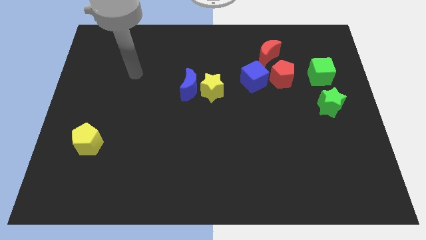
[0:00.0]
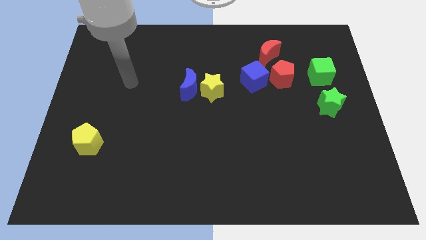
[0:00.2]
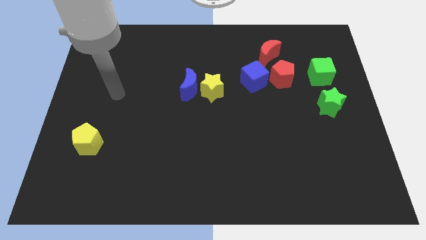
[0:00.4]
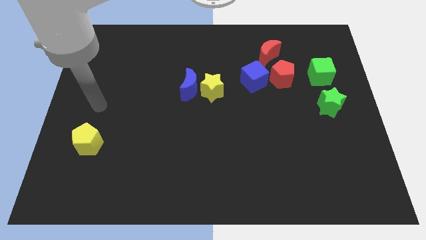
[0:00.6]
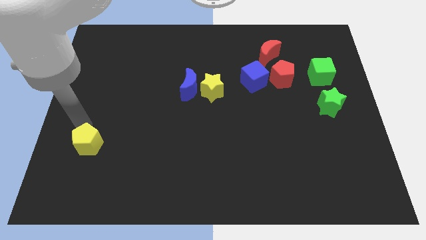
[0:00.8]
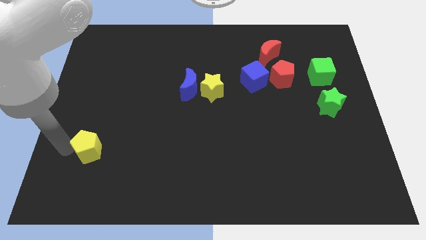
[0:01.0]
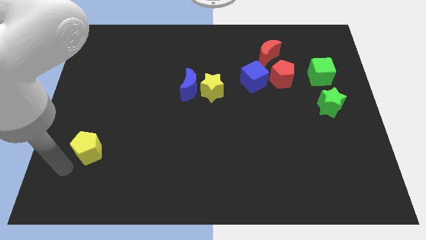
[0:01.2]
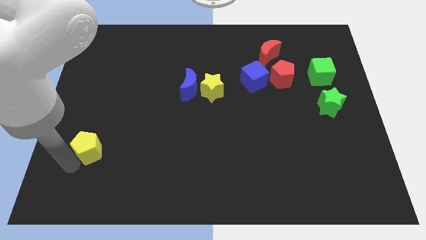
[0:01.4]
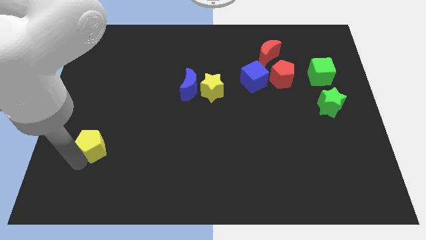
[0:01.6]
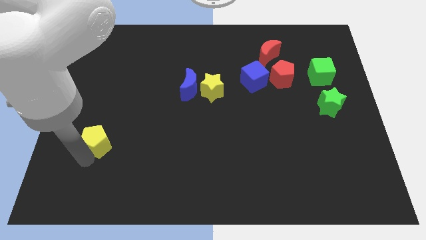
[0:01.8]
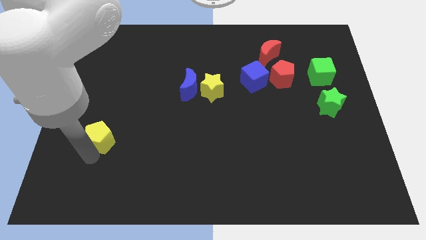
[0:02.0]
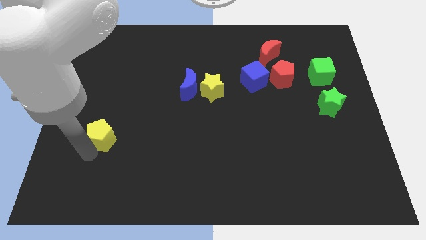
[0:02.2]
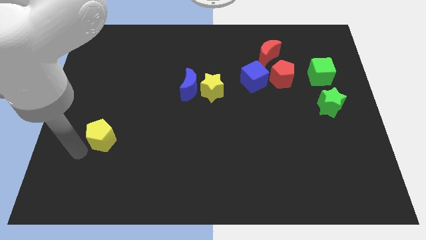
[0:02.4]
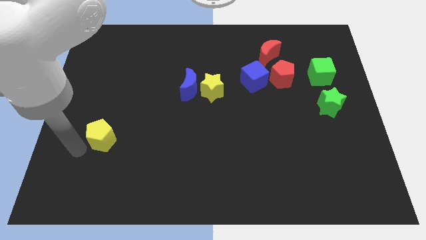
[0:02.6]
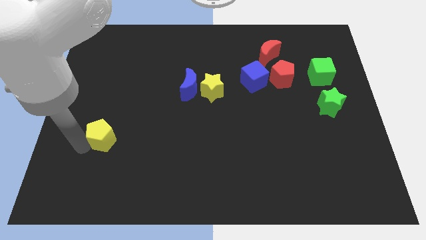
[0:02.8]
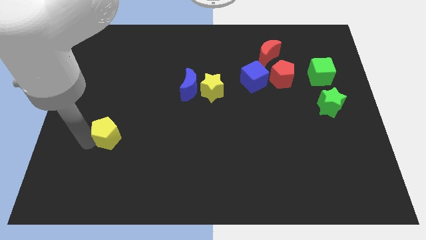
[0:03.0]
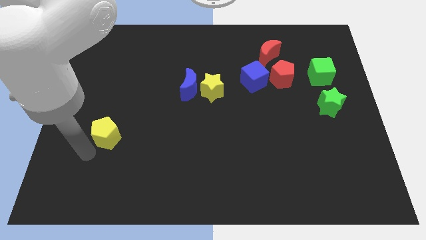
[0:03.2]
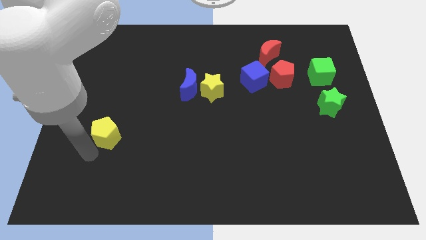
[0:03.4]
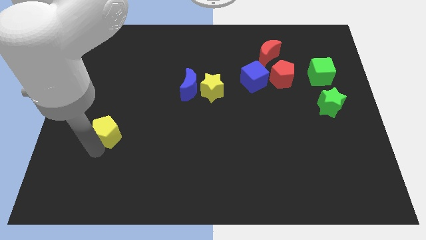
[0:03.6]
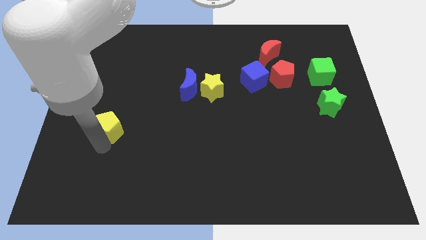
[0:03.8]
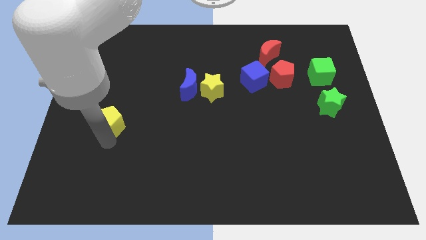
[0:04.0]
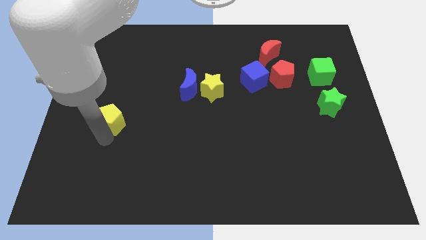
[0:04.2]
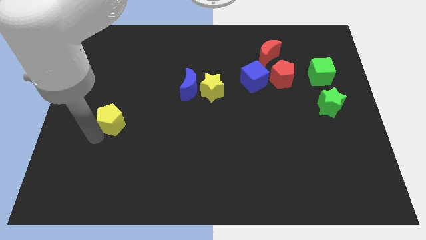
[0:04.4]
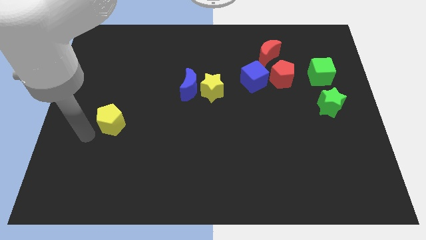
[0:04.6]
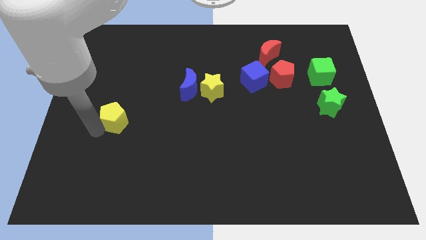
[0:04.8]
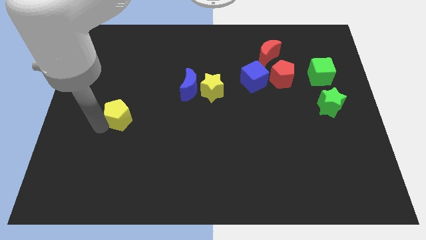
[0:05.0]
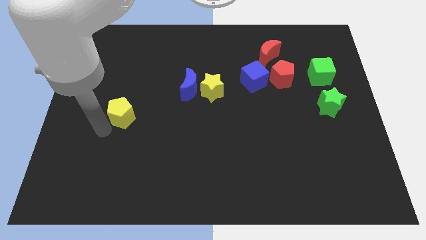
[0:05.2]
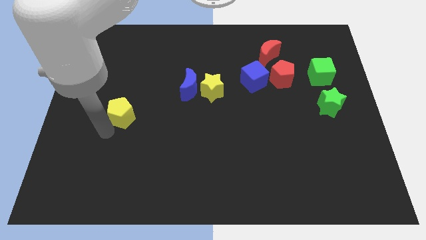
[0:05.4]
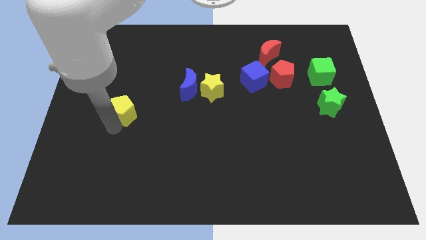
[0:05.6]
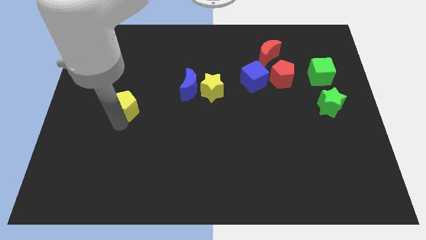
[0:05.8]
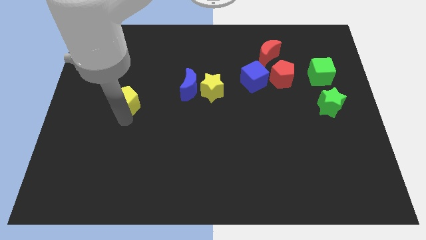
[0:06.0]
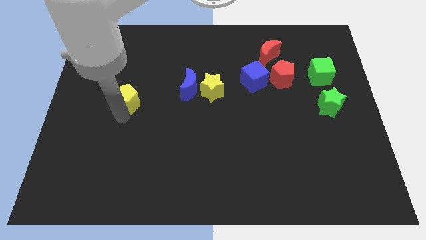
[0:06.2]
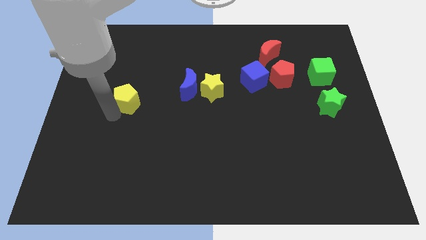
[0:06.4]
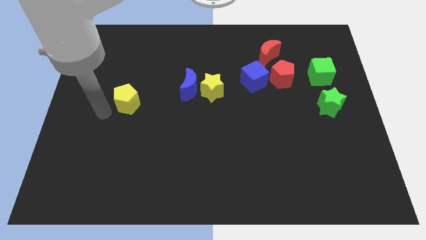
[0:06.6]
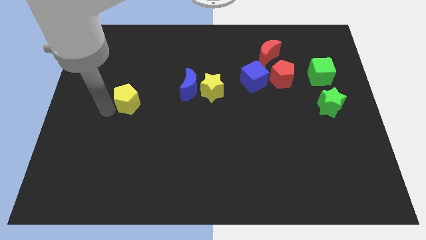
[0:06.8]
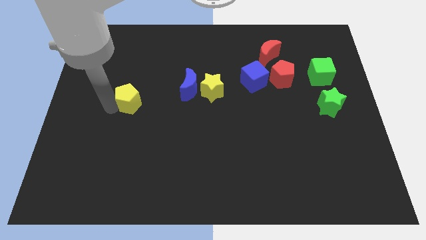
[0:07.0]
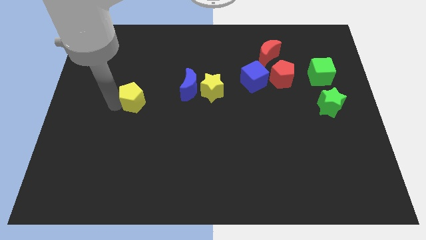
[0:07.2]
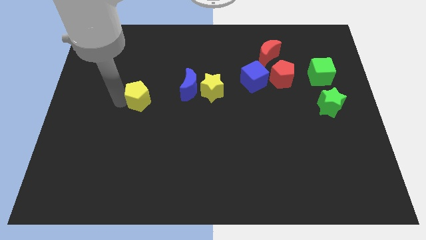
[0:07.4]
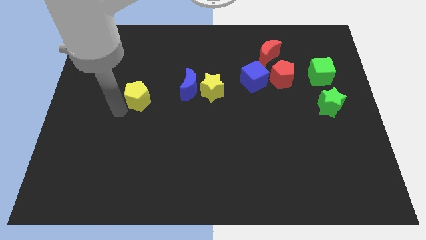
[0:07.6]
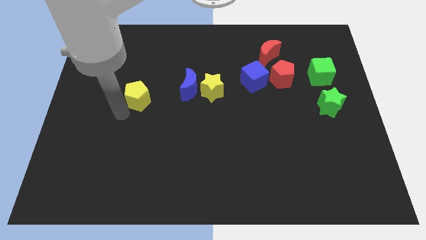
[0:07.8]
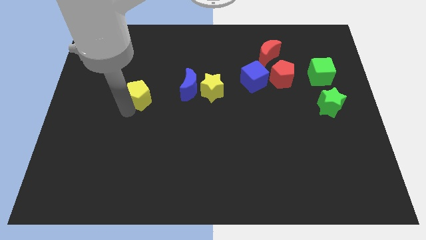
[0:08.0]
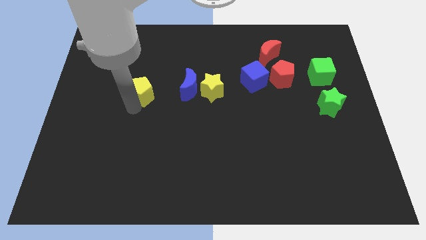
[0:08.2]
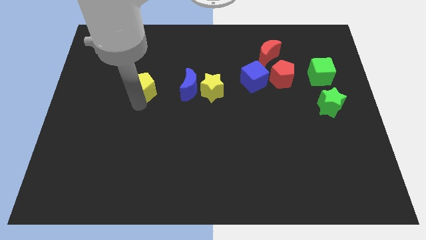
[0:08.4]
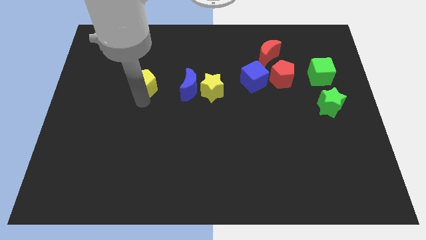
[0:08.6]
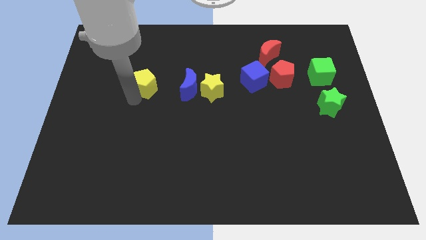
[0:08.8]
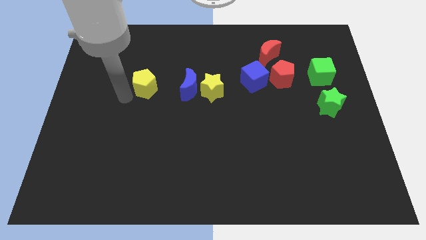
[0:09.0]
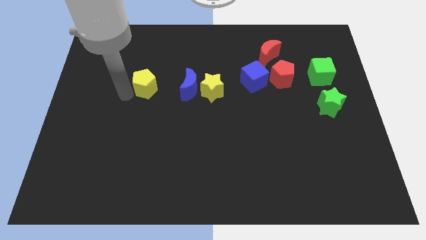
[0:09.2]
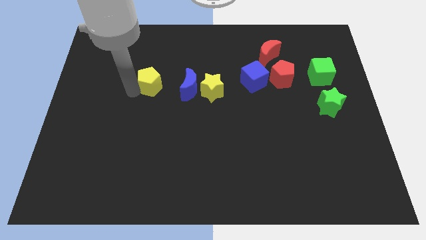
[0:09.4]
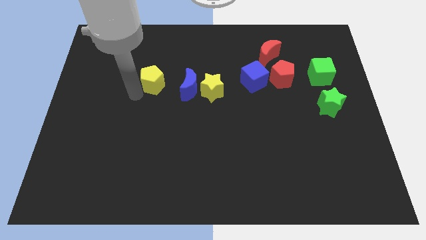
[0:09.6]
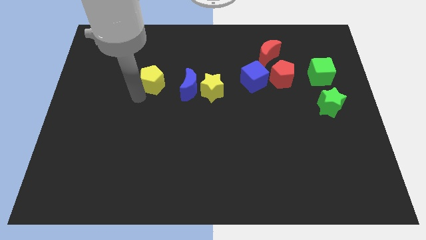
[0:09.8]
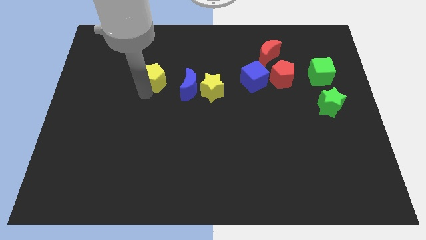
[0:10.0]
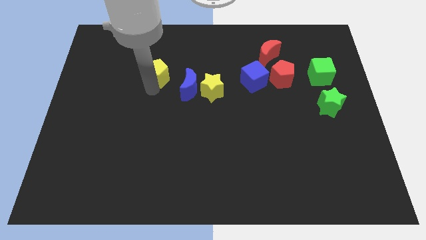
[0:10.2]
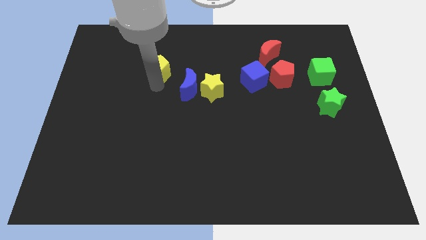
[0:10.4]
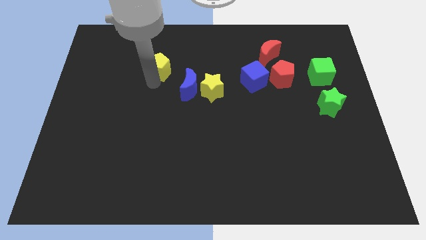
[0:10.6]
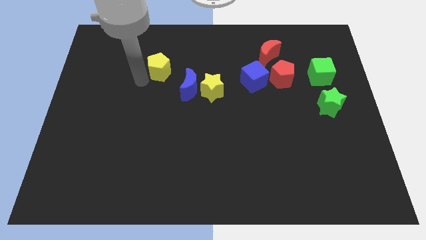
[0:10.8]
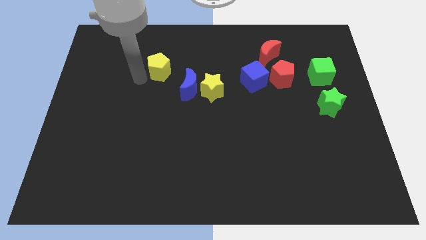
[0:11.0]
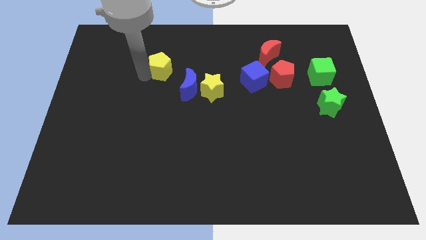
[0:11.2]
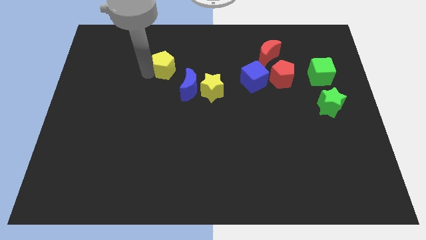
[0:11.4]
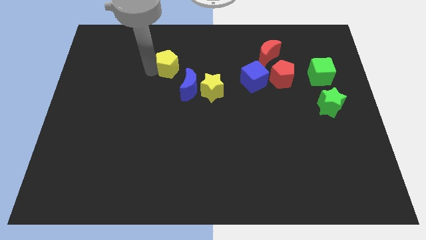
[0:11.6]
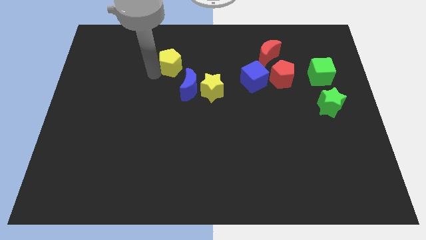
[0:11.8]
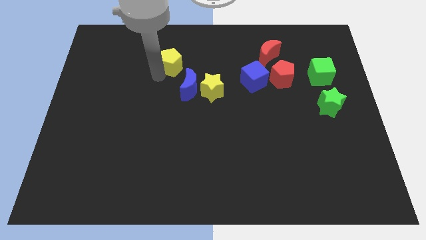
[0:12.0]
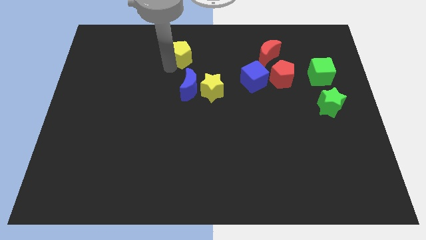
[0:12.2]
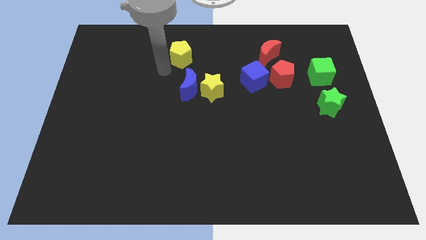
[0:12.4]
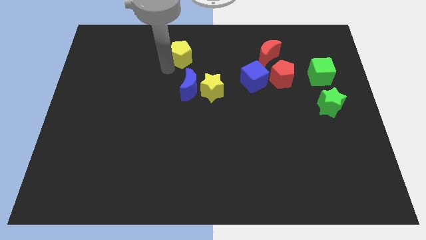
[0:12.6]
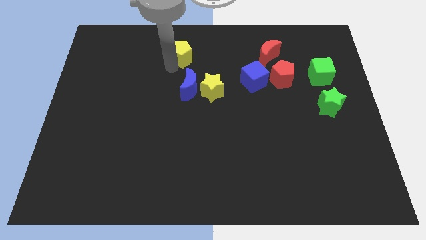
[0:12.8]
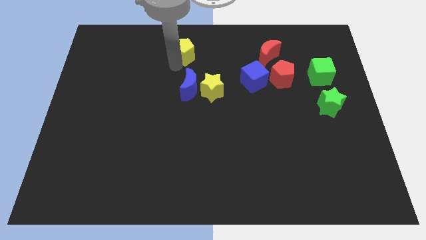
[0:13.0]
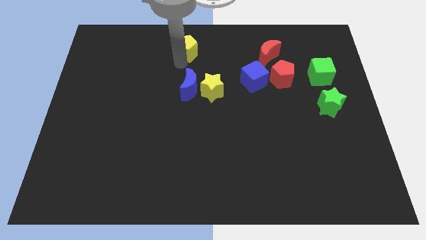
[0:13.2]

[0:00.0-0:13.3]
push the yellow pentagon to the top side
